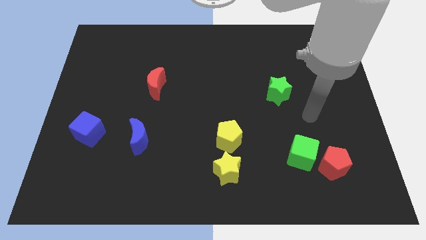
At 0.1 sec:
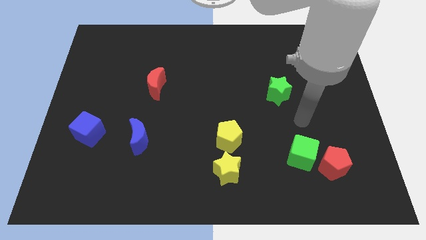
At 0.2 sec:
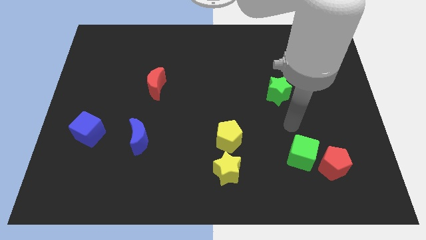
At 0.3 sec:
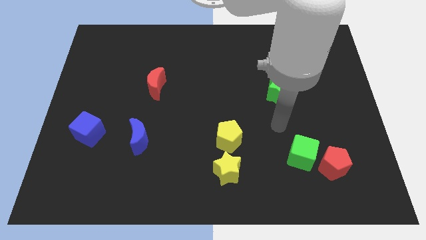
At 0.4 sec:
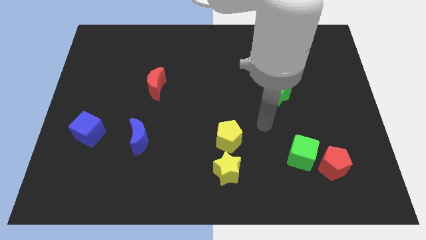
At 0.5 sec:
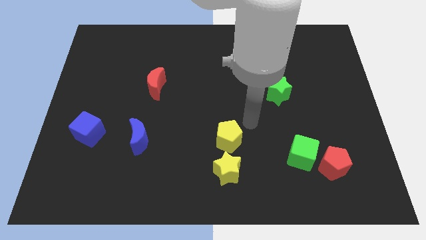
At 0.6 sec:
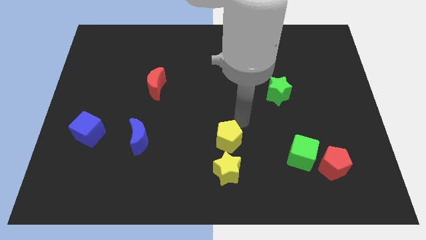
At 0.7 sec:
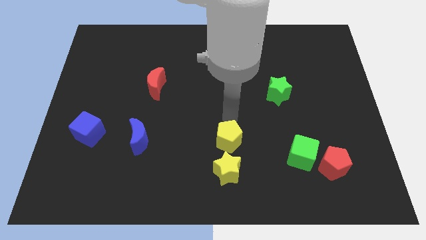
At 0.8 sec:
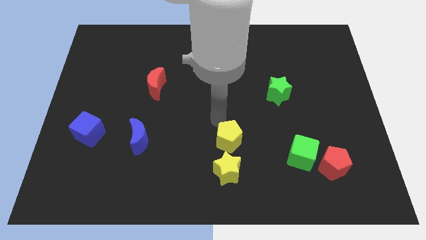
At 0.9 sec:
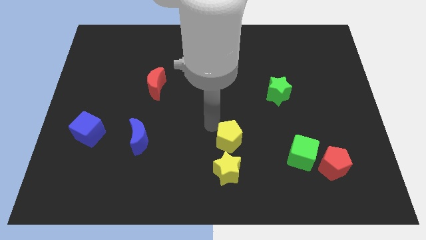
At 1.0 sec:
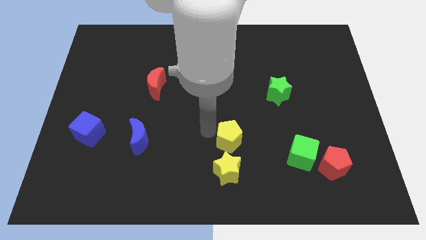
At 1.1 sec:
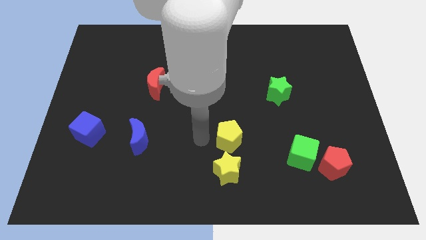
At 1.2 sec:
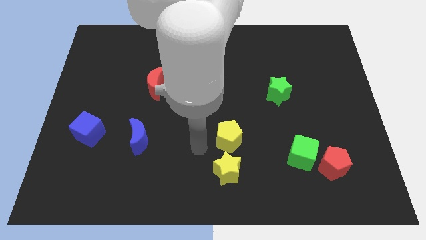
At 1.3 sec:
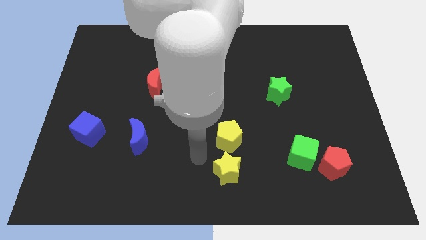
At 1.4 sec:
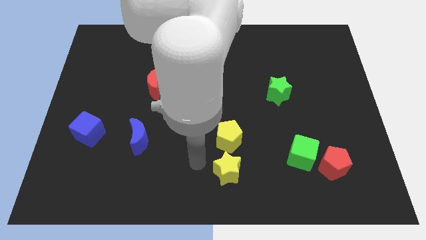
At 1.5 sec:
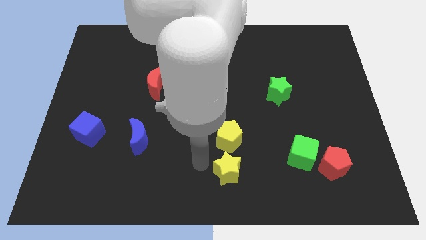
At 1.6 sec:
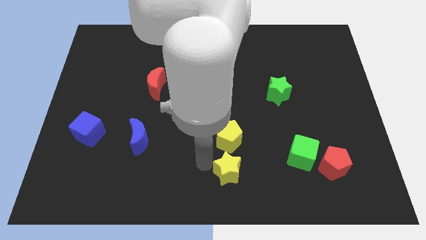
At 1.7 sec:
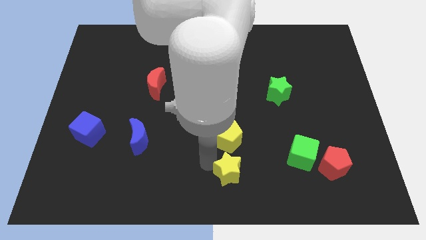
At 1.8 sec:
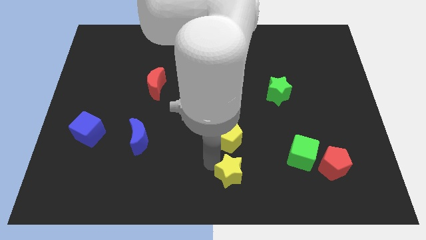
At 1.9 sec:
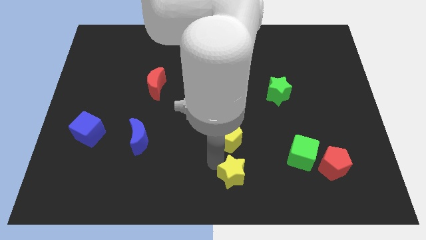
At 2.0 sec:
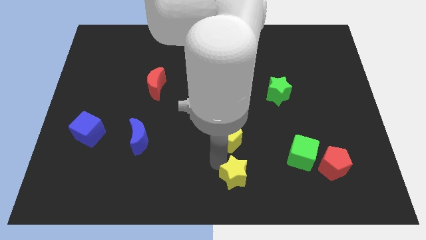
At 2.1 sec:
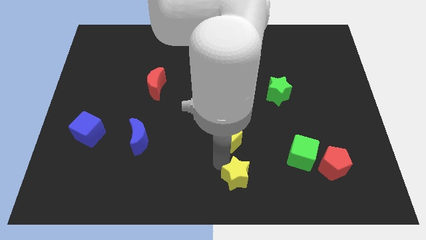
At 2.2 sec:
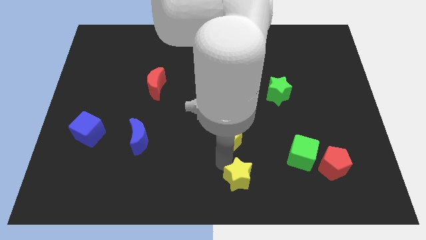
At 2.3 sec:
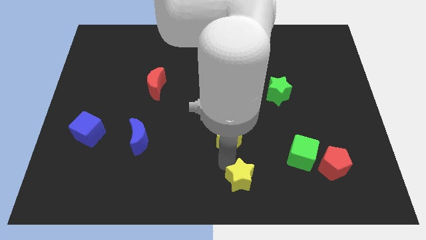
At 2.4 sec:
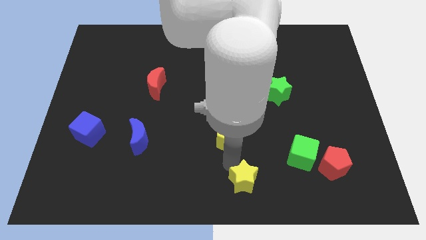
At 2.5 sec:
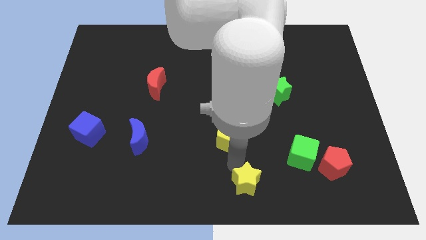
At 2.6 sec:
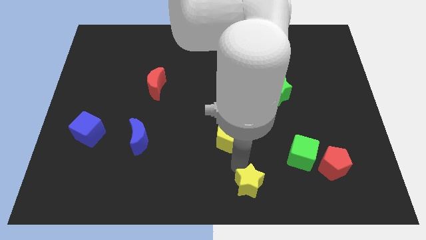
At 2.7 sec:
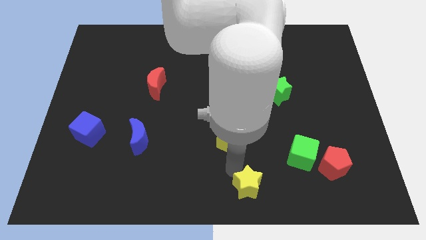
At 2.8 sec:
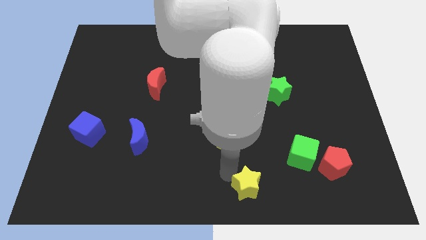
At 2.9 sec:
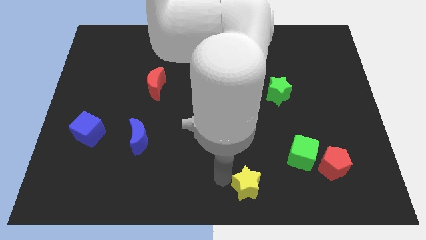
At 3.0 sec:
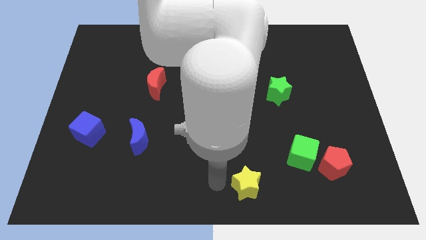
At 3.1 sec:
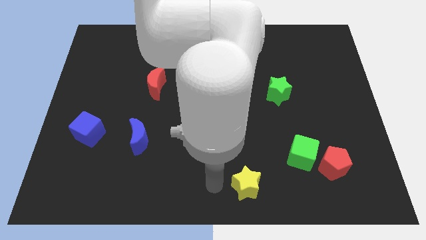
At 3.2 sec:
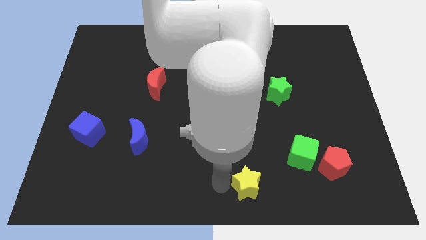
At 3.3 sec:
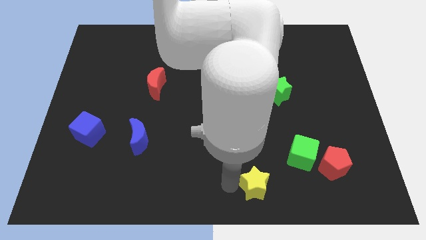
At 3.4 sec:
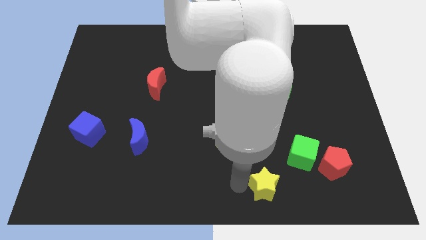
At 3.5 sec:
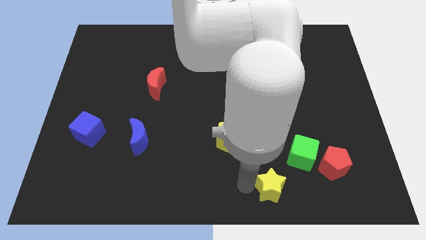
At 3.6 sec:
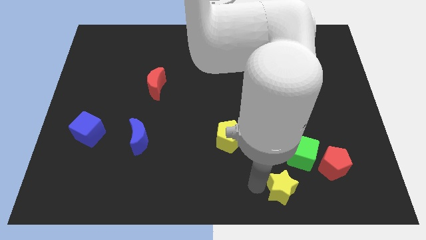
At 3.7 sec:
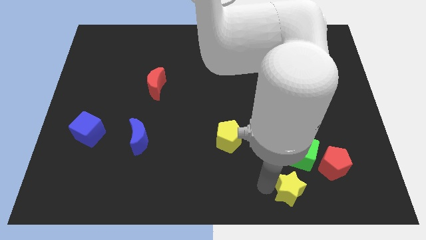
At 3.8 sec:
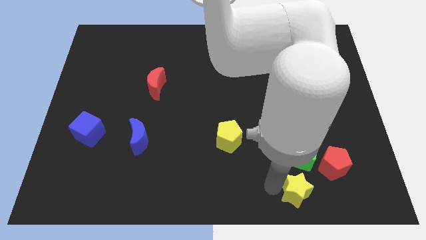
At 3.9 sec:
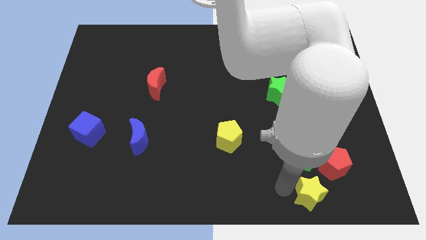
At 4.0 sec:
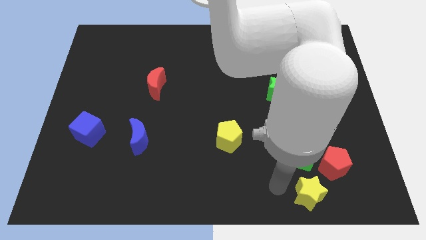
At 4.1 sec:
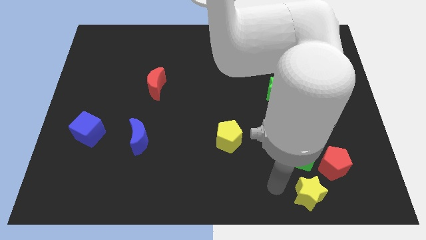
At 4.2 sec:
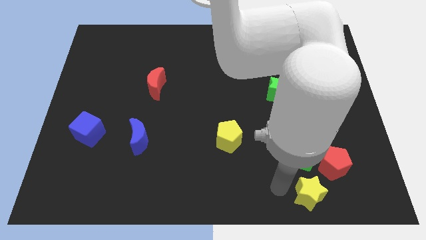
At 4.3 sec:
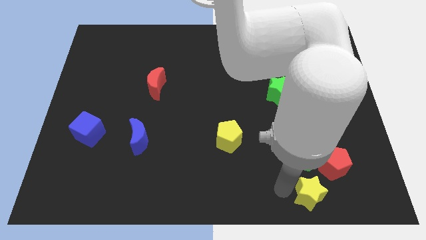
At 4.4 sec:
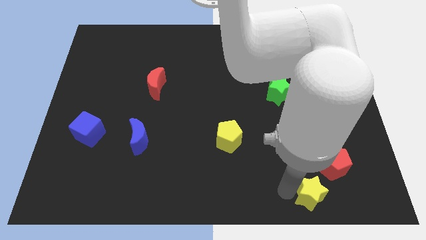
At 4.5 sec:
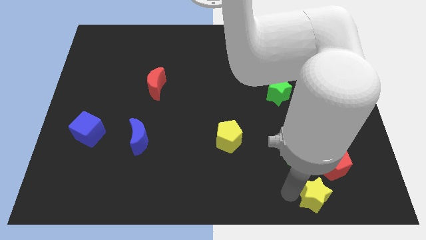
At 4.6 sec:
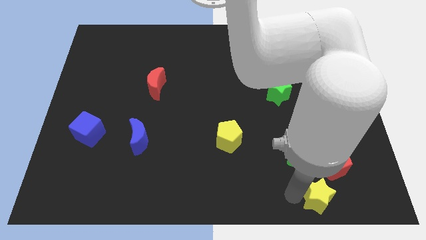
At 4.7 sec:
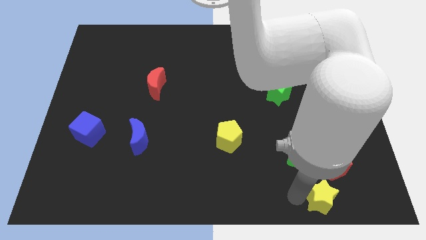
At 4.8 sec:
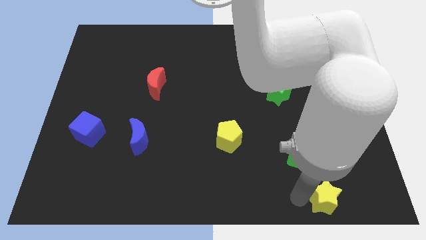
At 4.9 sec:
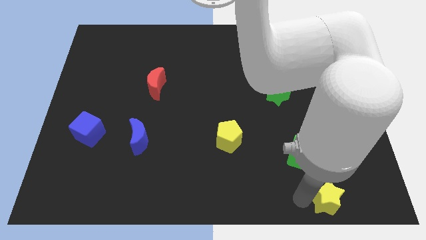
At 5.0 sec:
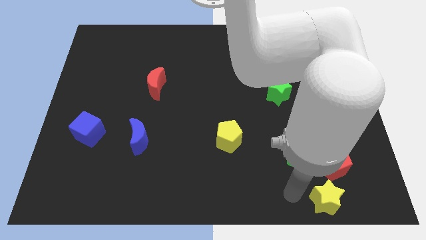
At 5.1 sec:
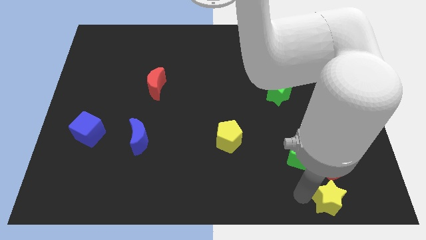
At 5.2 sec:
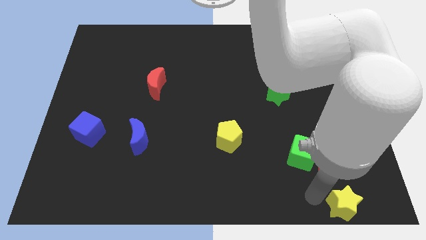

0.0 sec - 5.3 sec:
slide the yellow star to the lower right corner

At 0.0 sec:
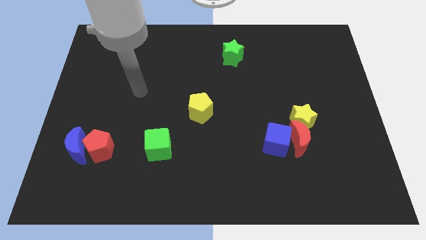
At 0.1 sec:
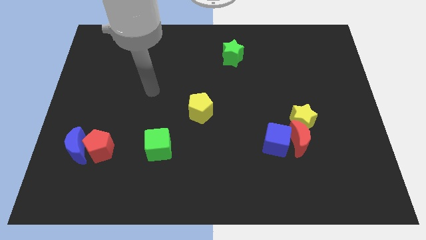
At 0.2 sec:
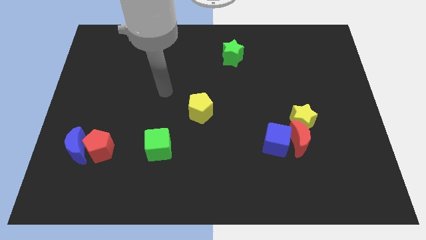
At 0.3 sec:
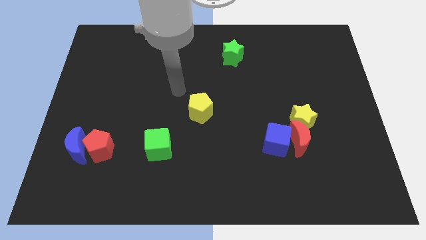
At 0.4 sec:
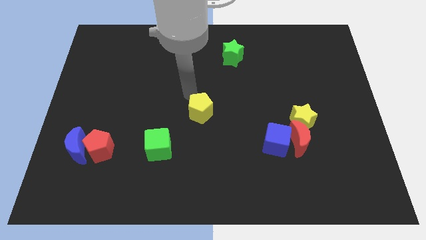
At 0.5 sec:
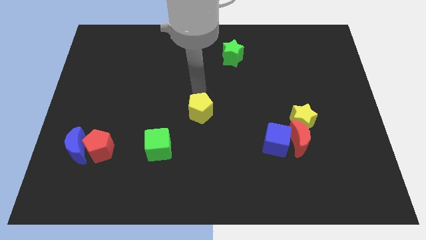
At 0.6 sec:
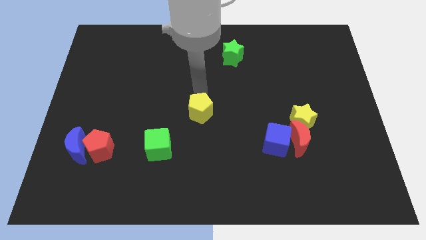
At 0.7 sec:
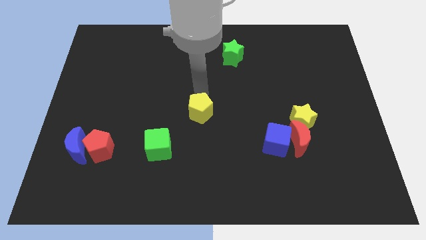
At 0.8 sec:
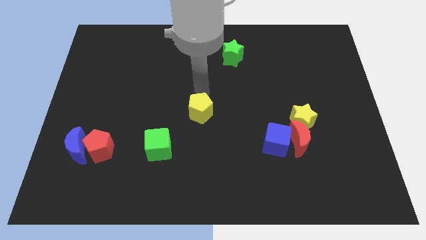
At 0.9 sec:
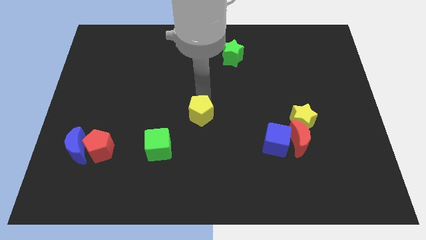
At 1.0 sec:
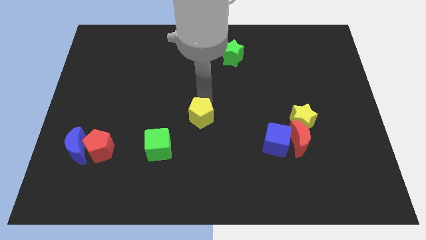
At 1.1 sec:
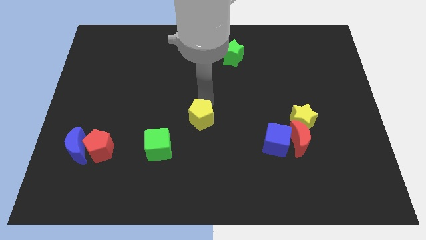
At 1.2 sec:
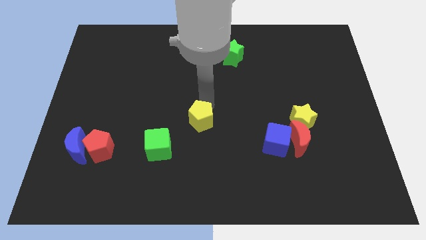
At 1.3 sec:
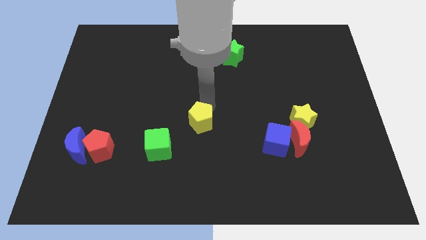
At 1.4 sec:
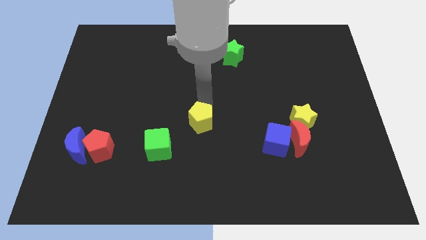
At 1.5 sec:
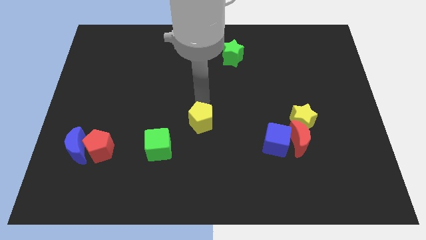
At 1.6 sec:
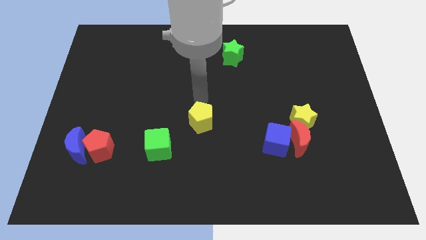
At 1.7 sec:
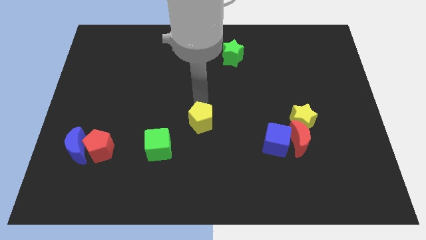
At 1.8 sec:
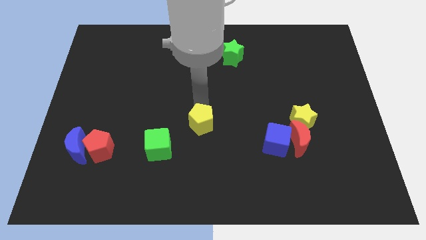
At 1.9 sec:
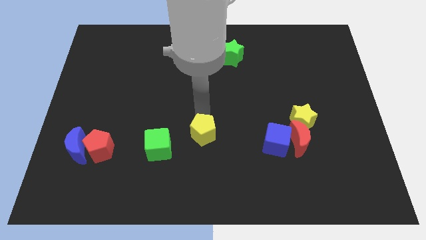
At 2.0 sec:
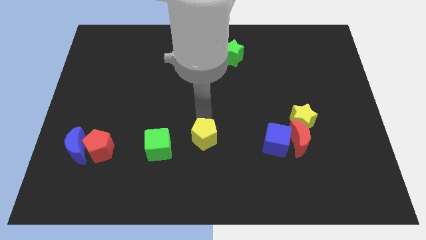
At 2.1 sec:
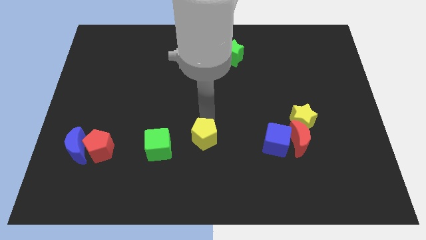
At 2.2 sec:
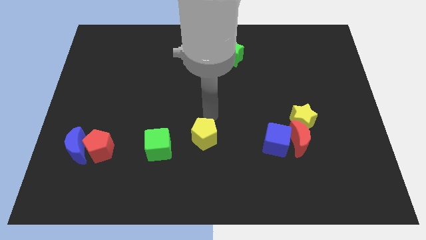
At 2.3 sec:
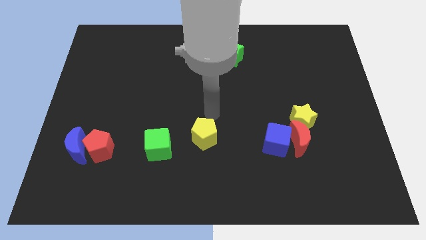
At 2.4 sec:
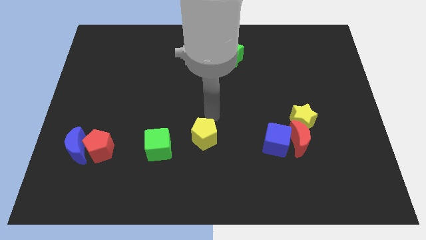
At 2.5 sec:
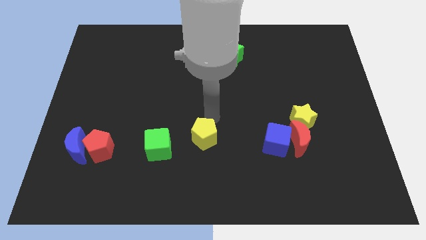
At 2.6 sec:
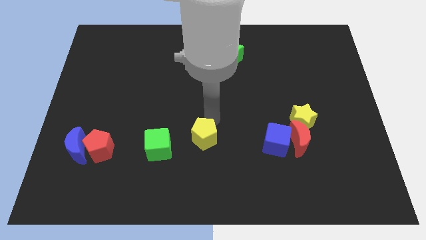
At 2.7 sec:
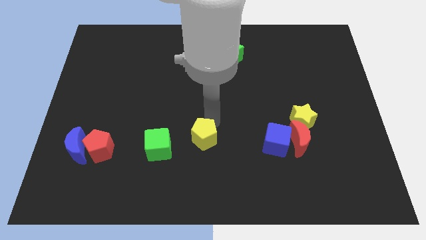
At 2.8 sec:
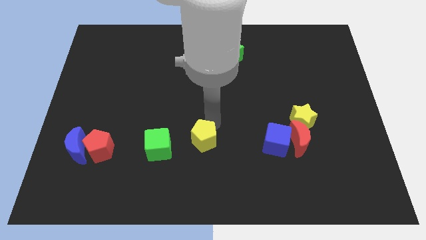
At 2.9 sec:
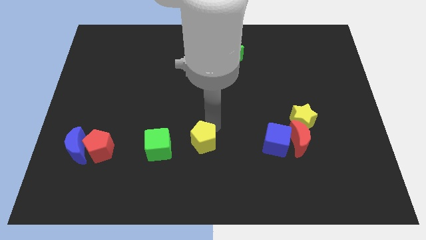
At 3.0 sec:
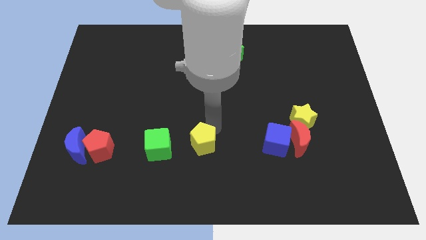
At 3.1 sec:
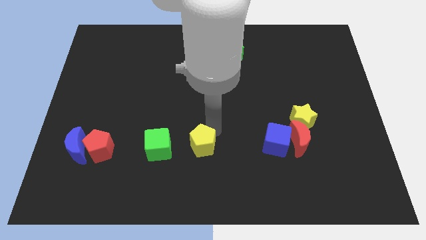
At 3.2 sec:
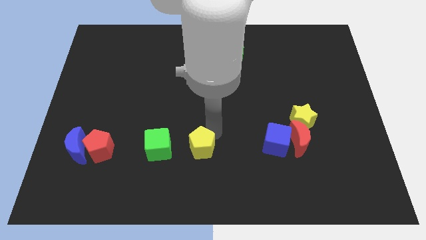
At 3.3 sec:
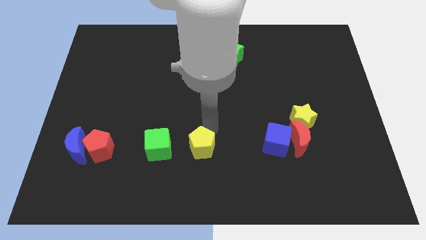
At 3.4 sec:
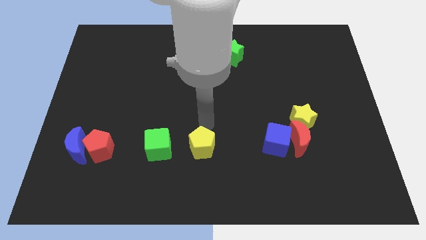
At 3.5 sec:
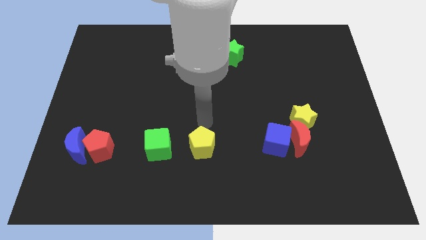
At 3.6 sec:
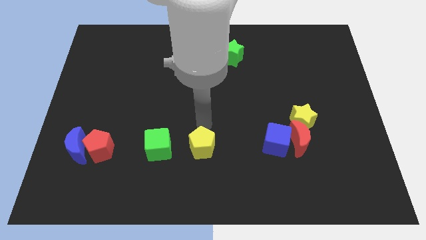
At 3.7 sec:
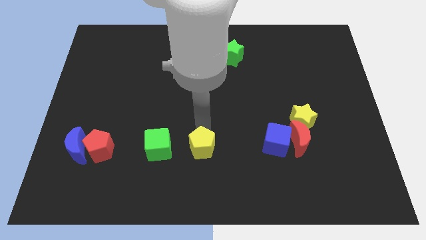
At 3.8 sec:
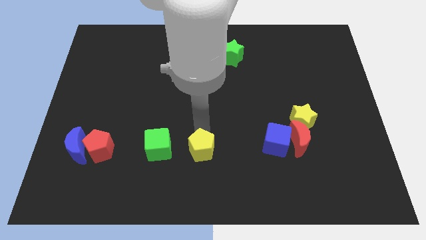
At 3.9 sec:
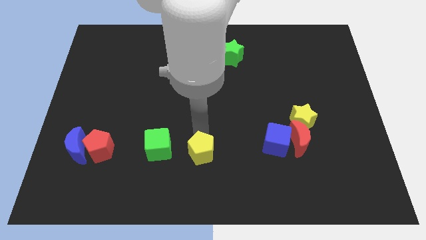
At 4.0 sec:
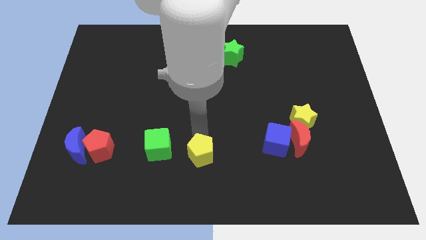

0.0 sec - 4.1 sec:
move the yellow pentagon to the bottom
